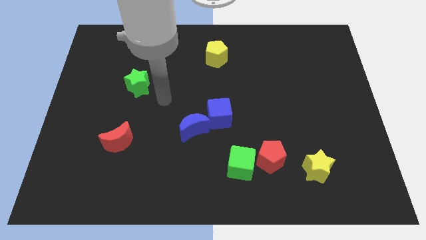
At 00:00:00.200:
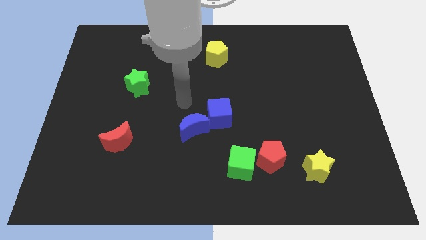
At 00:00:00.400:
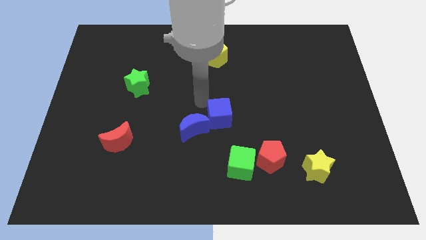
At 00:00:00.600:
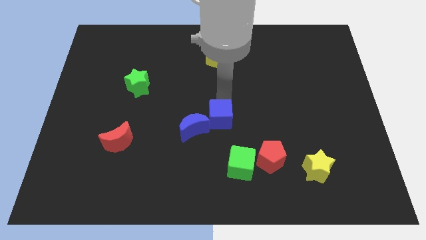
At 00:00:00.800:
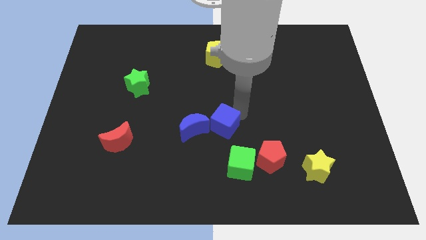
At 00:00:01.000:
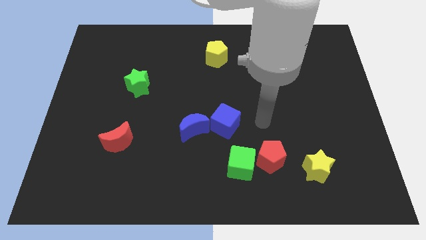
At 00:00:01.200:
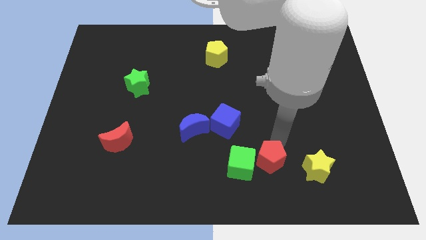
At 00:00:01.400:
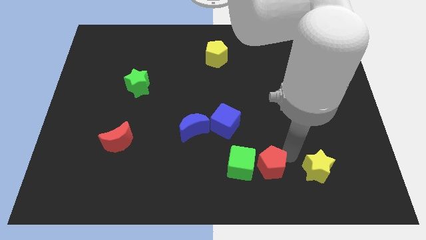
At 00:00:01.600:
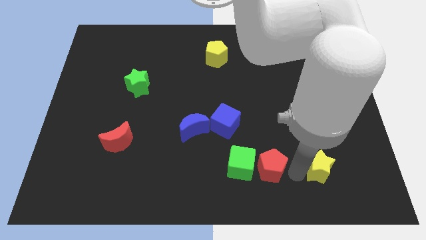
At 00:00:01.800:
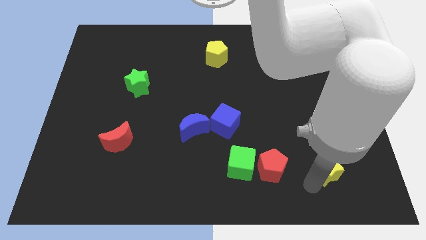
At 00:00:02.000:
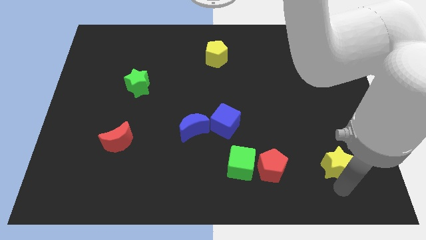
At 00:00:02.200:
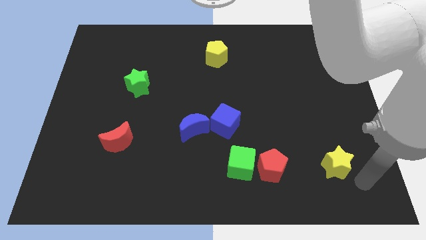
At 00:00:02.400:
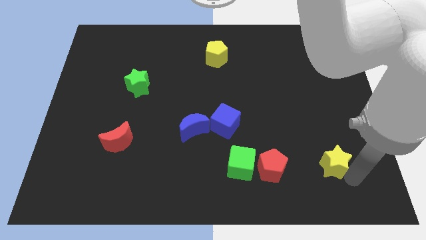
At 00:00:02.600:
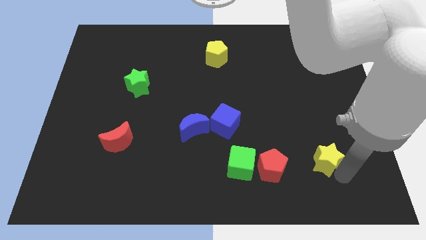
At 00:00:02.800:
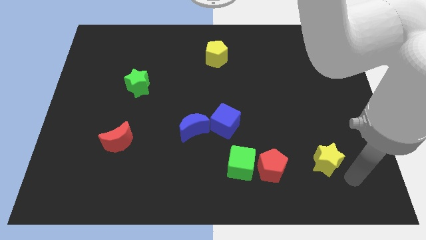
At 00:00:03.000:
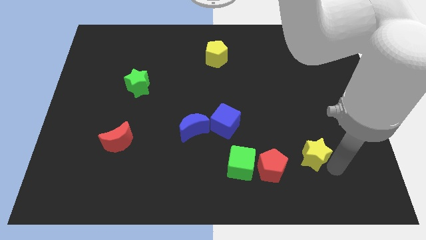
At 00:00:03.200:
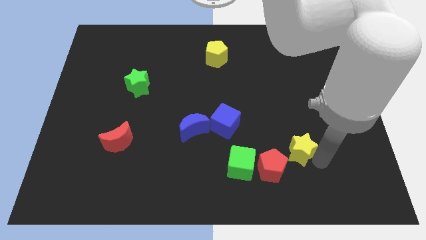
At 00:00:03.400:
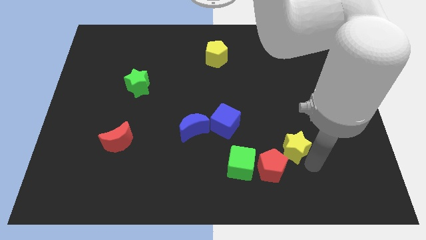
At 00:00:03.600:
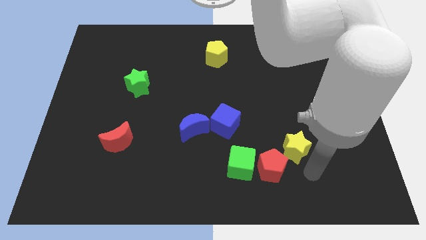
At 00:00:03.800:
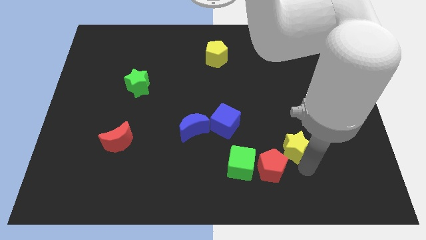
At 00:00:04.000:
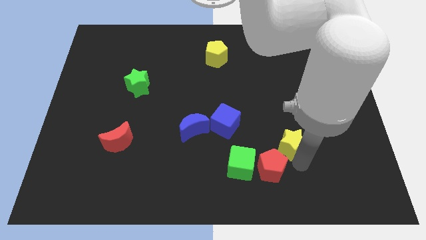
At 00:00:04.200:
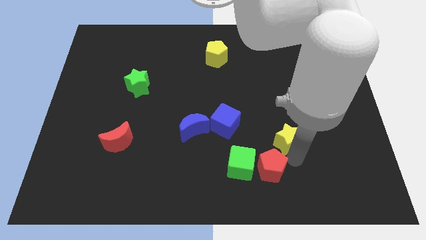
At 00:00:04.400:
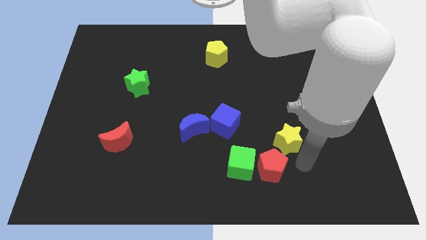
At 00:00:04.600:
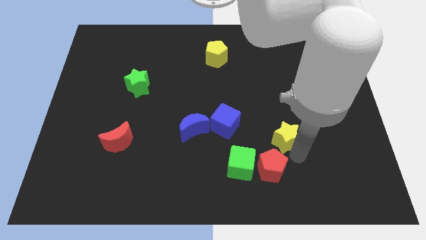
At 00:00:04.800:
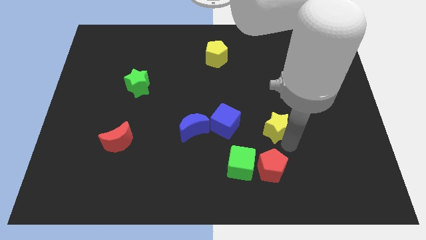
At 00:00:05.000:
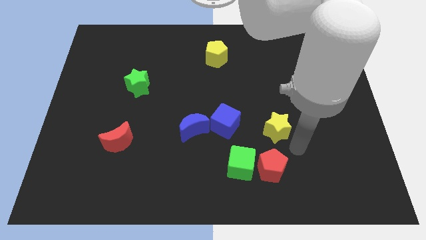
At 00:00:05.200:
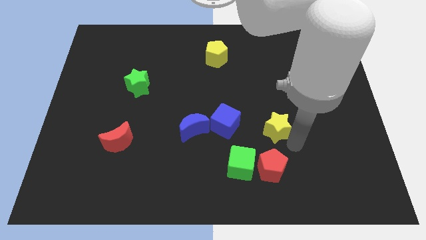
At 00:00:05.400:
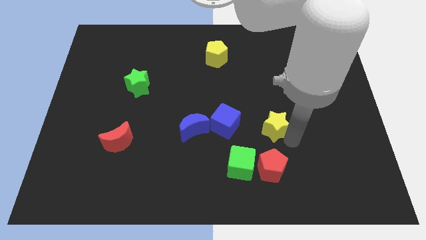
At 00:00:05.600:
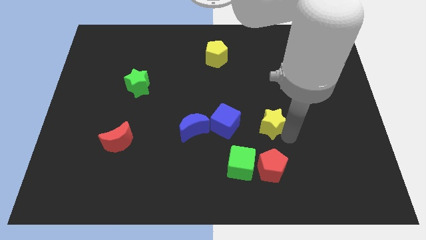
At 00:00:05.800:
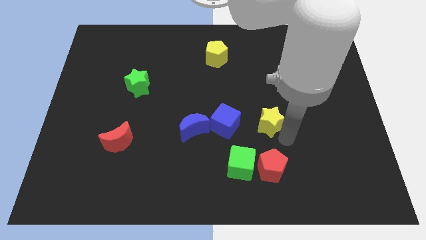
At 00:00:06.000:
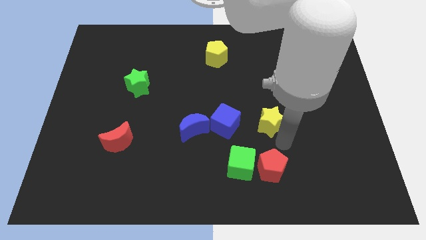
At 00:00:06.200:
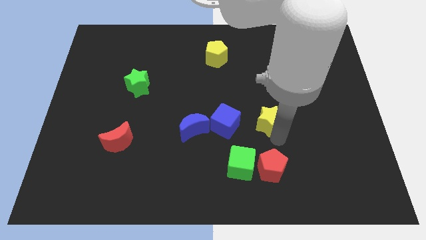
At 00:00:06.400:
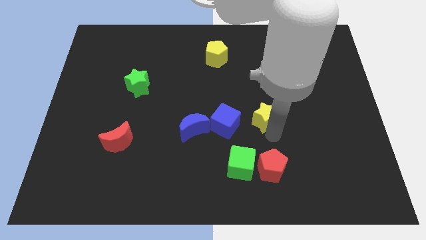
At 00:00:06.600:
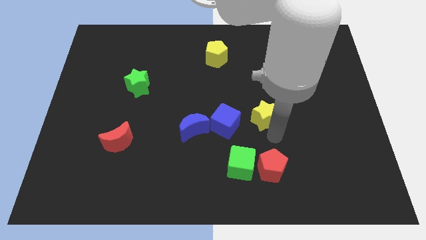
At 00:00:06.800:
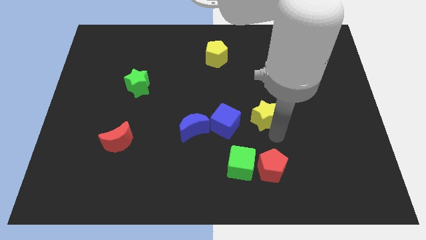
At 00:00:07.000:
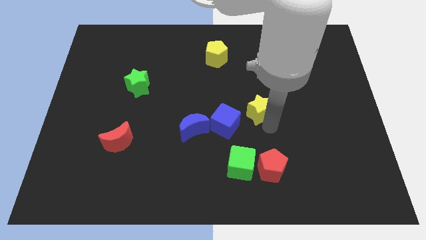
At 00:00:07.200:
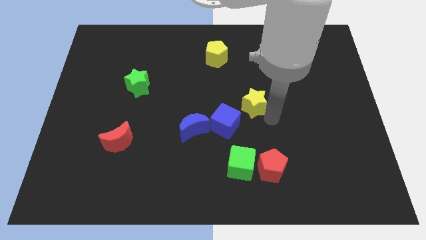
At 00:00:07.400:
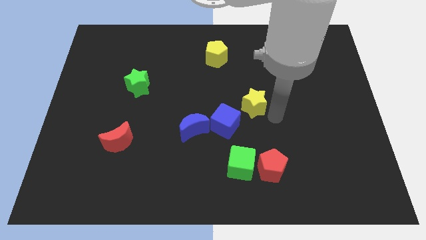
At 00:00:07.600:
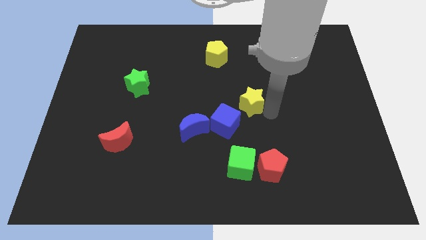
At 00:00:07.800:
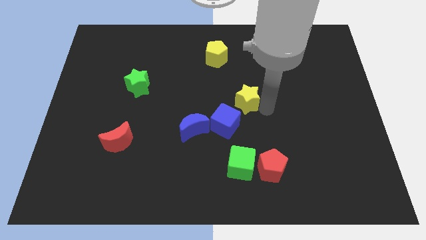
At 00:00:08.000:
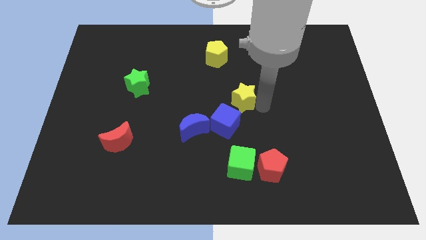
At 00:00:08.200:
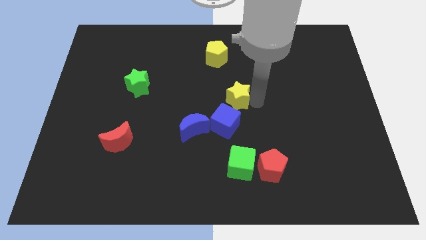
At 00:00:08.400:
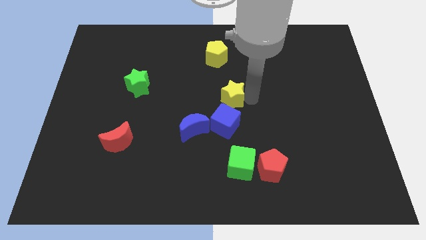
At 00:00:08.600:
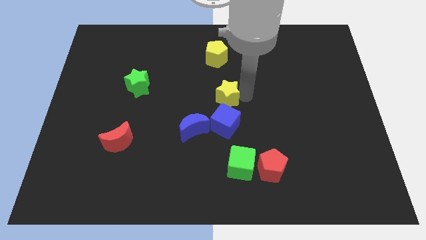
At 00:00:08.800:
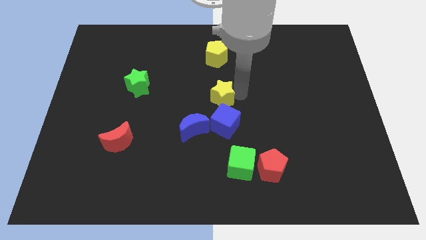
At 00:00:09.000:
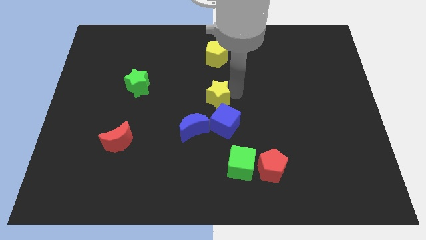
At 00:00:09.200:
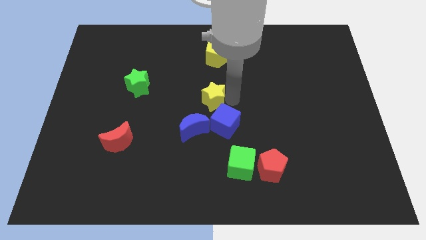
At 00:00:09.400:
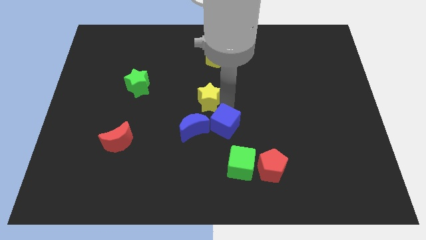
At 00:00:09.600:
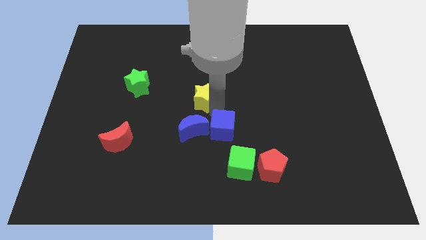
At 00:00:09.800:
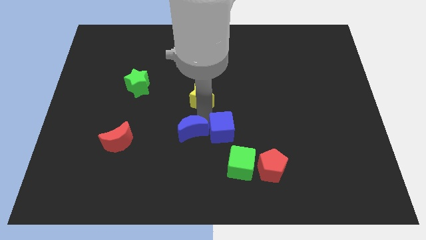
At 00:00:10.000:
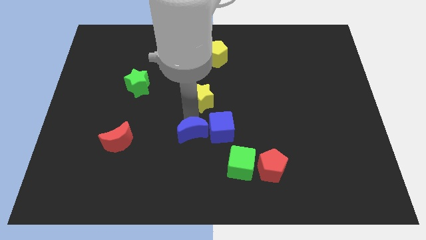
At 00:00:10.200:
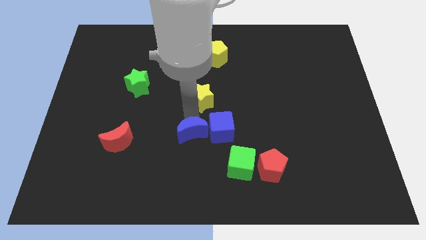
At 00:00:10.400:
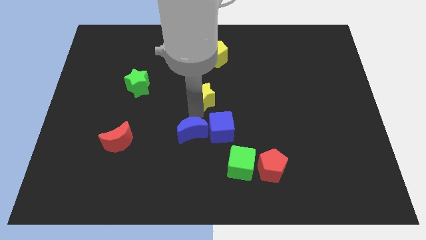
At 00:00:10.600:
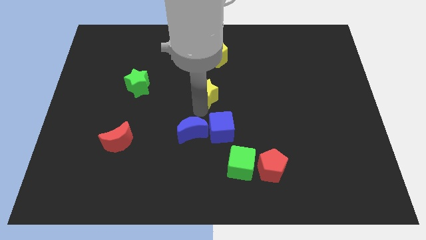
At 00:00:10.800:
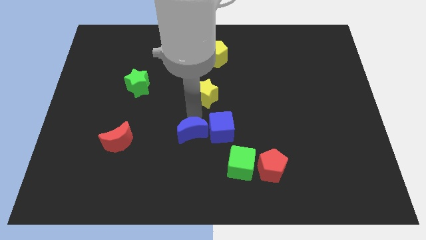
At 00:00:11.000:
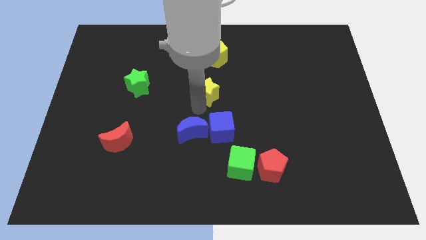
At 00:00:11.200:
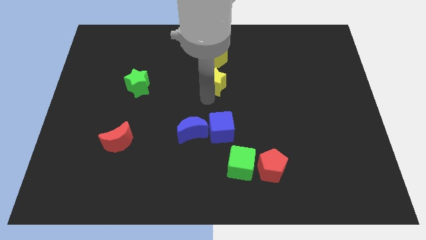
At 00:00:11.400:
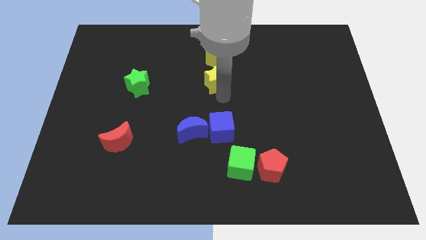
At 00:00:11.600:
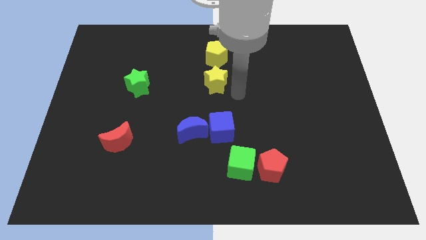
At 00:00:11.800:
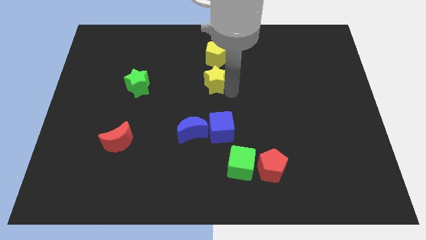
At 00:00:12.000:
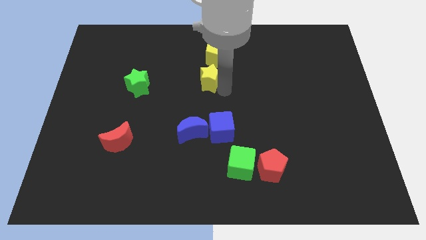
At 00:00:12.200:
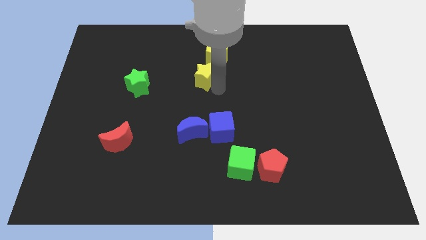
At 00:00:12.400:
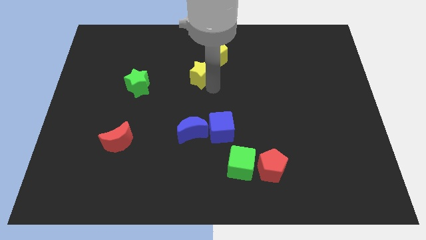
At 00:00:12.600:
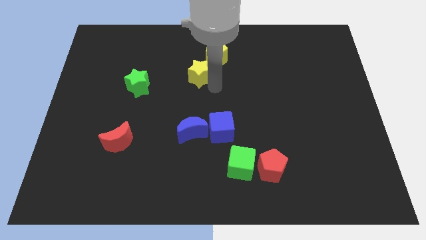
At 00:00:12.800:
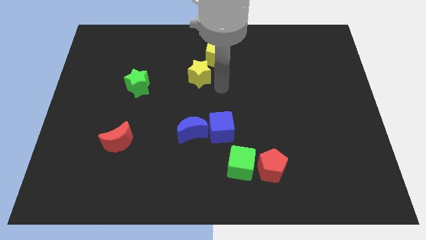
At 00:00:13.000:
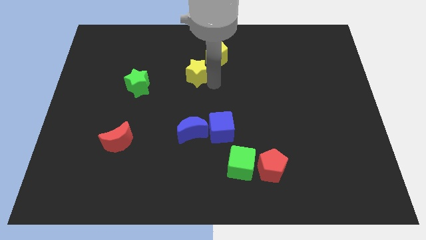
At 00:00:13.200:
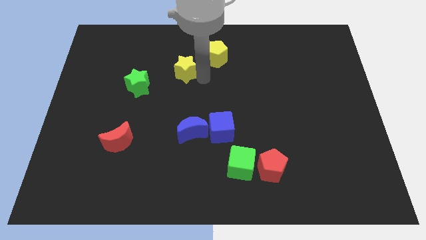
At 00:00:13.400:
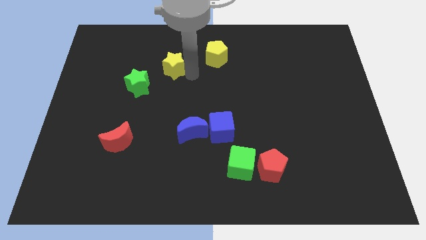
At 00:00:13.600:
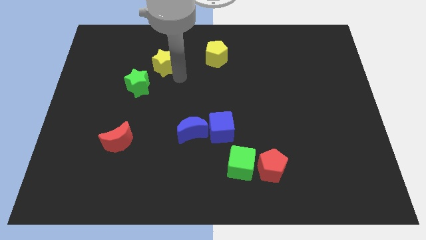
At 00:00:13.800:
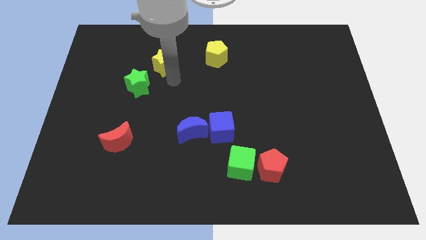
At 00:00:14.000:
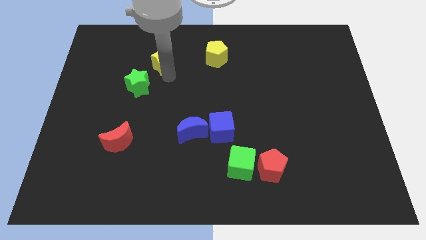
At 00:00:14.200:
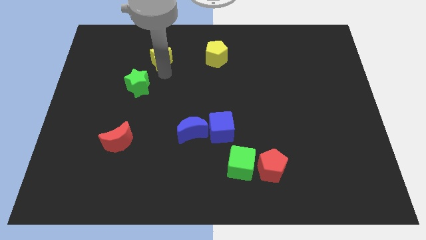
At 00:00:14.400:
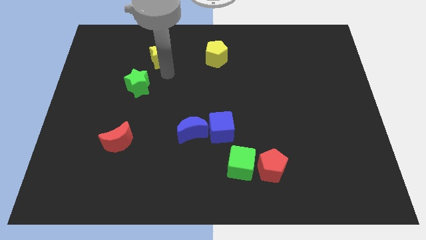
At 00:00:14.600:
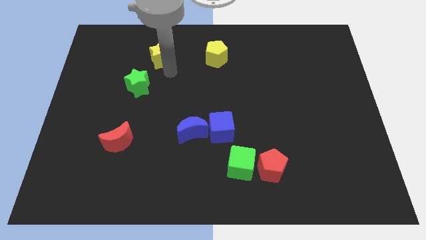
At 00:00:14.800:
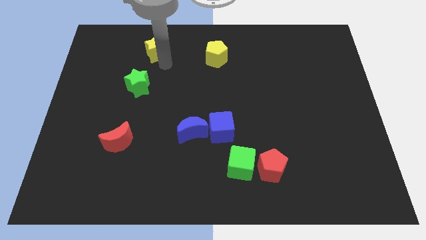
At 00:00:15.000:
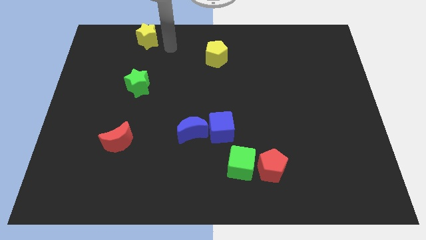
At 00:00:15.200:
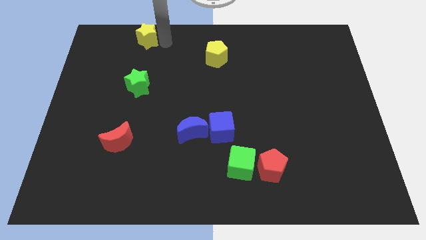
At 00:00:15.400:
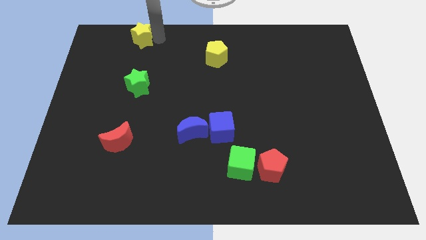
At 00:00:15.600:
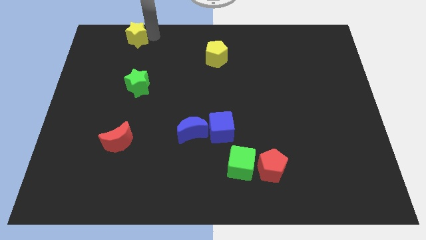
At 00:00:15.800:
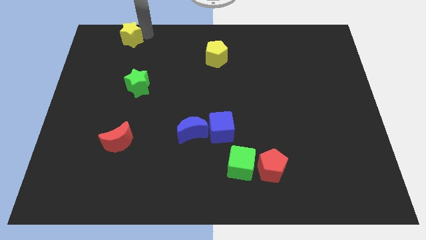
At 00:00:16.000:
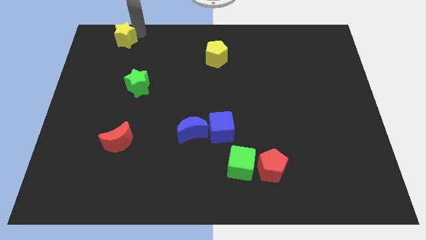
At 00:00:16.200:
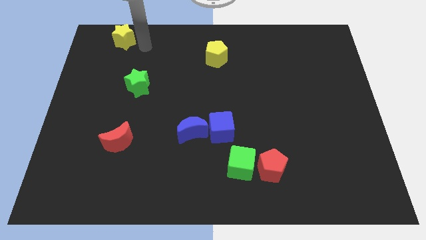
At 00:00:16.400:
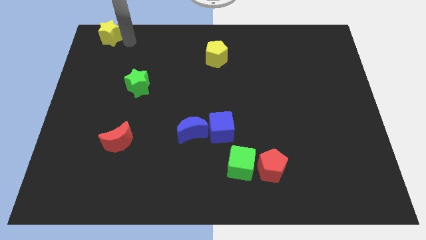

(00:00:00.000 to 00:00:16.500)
slide the yellow star to the top left of the board
